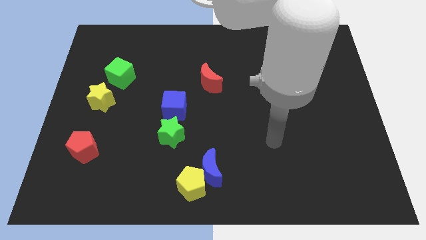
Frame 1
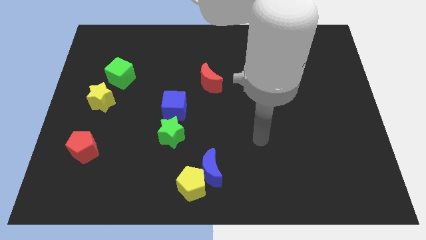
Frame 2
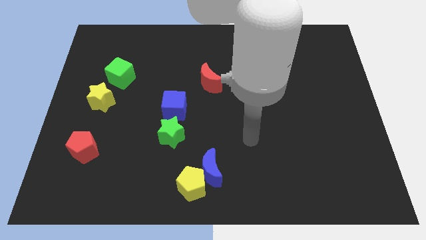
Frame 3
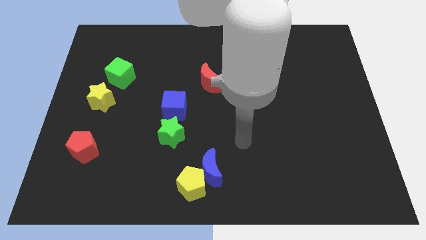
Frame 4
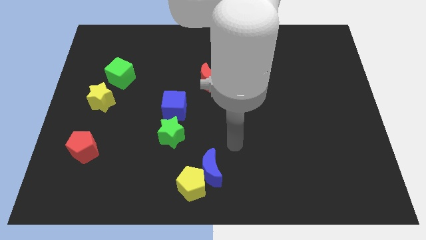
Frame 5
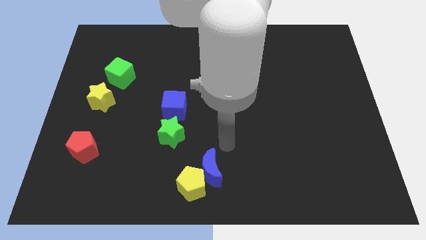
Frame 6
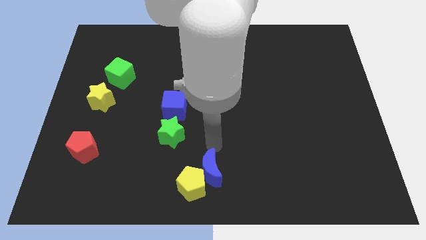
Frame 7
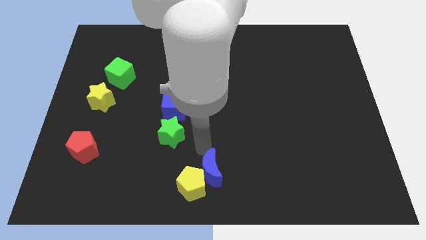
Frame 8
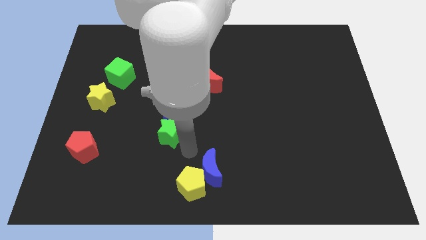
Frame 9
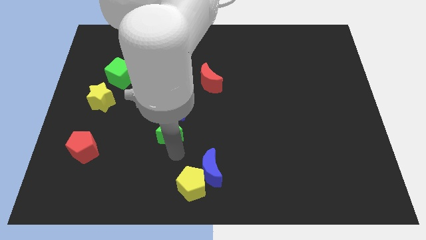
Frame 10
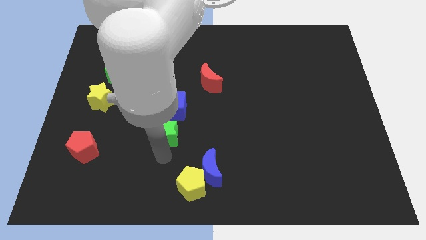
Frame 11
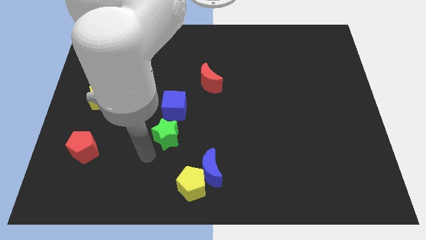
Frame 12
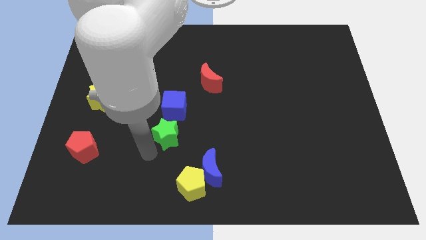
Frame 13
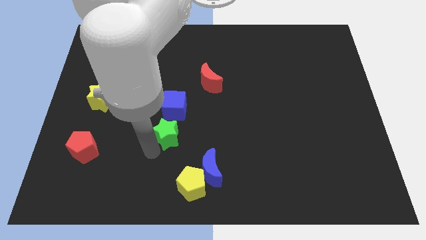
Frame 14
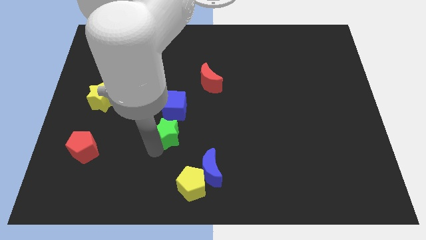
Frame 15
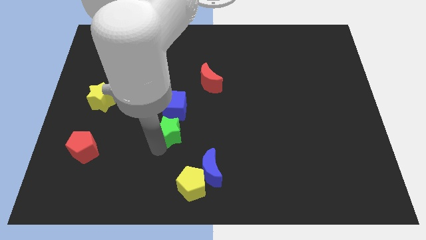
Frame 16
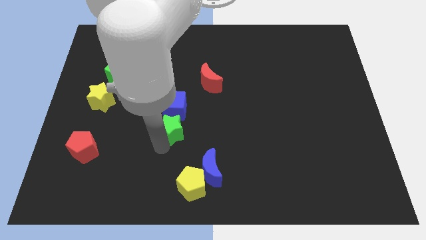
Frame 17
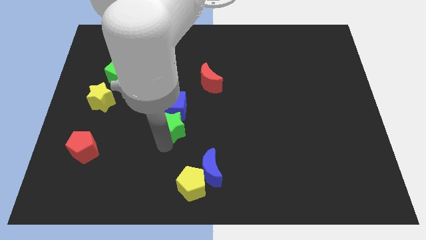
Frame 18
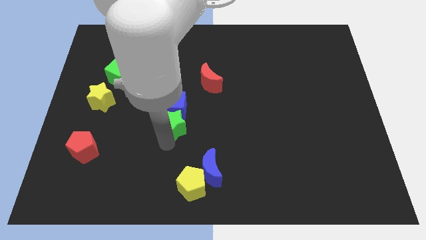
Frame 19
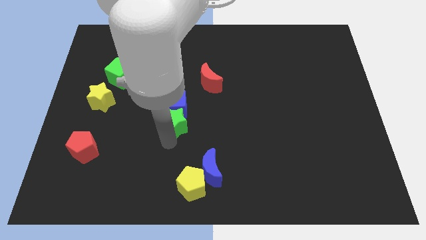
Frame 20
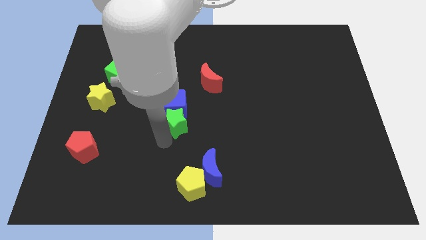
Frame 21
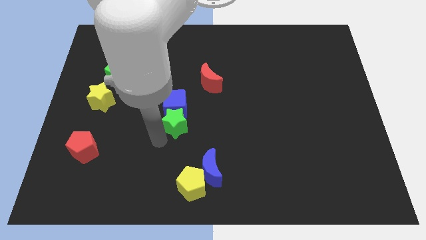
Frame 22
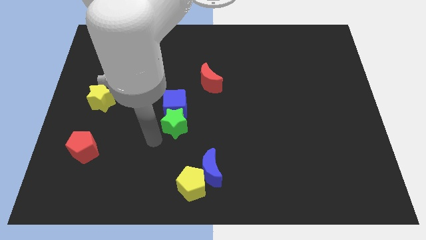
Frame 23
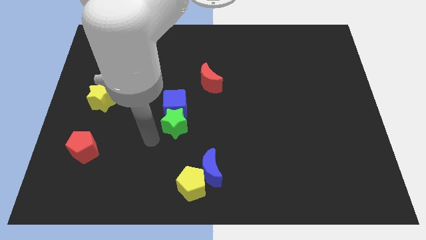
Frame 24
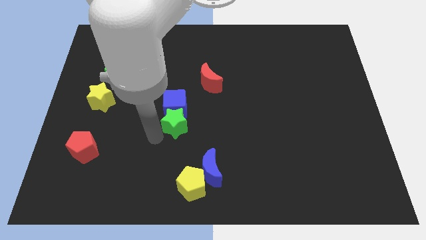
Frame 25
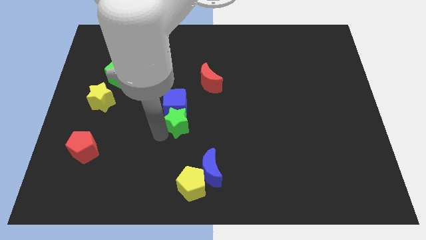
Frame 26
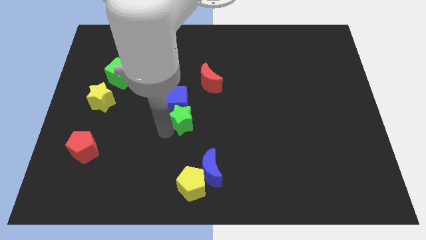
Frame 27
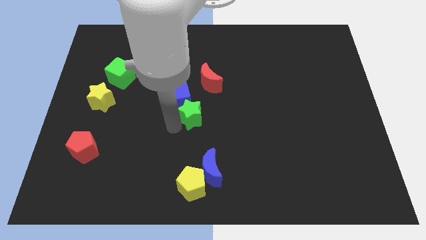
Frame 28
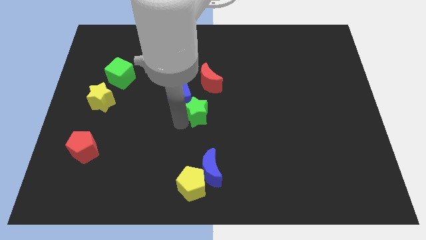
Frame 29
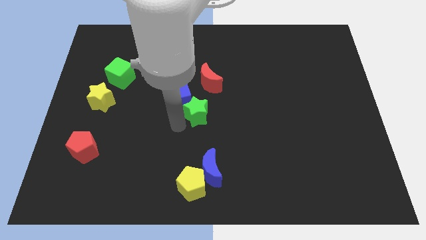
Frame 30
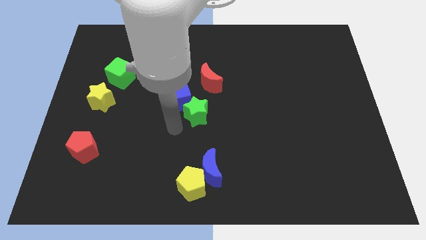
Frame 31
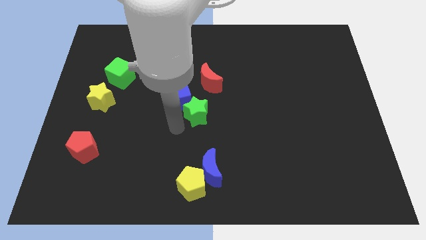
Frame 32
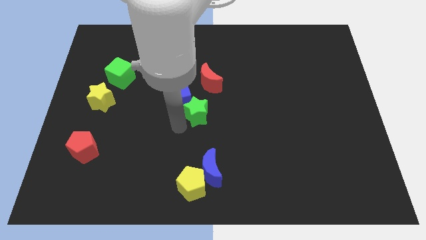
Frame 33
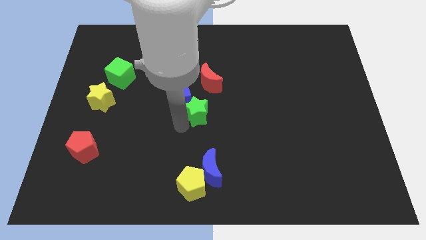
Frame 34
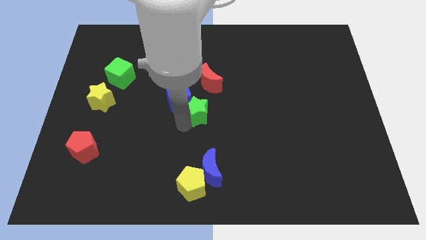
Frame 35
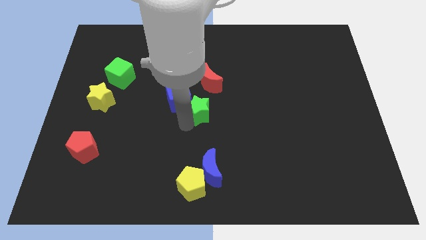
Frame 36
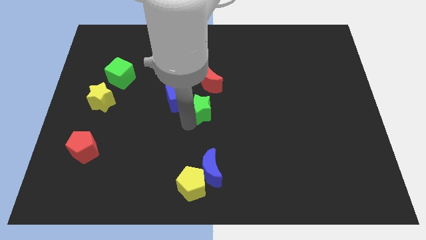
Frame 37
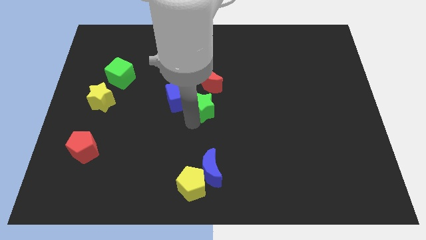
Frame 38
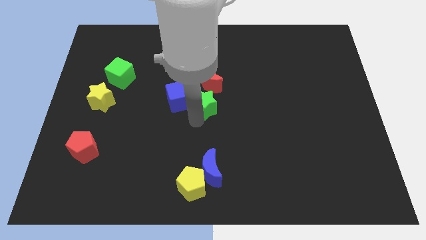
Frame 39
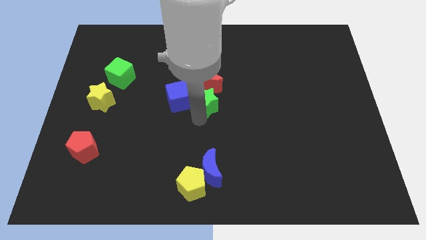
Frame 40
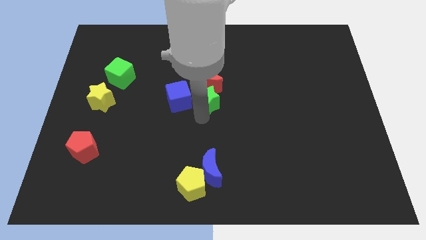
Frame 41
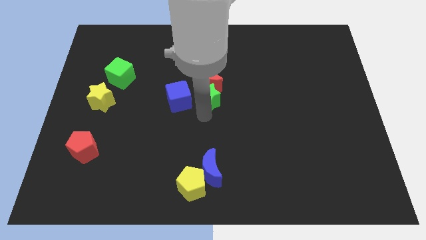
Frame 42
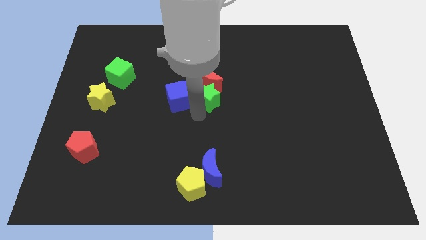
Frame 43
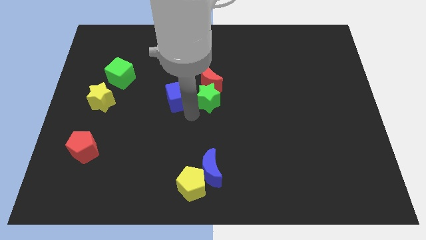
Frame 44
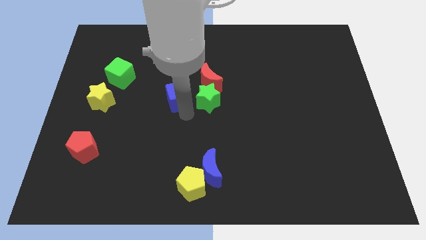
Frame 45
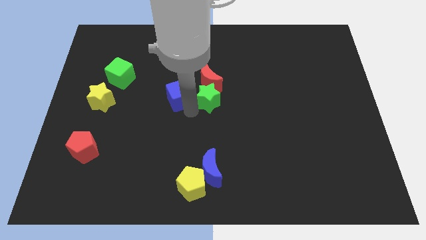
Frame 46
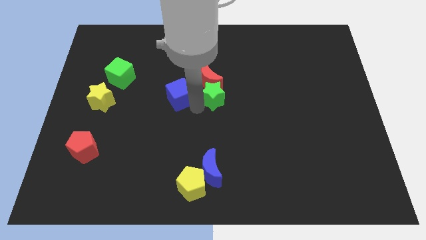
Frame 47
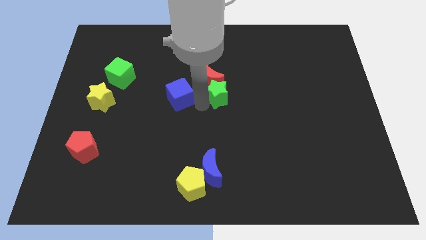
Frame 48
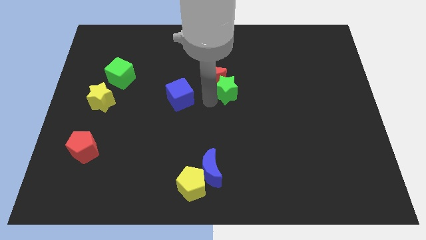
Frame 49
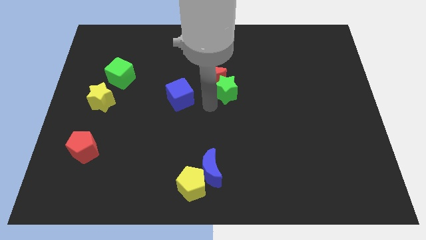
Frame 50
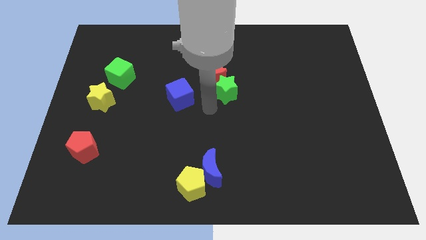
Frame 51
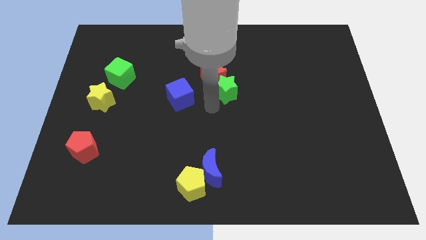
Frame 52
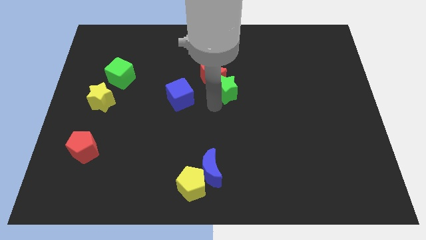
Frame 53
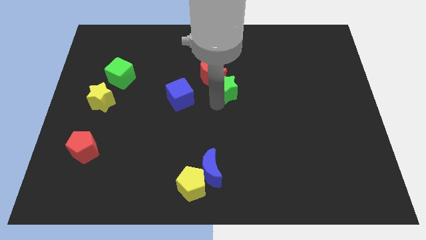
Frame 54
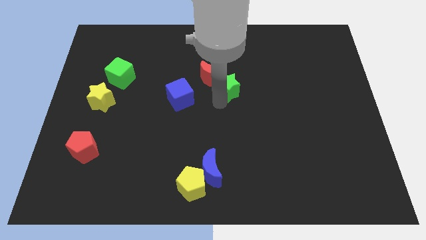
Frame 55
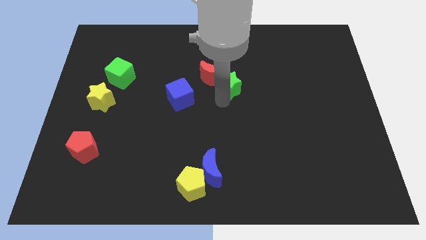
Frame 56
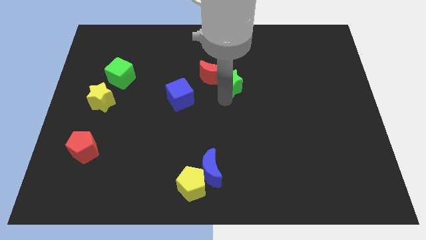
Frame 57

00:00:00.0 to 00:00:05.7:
push the green star upwards and to the right

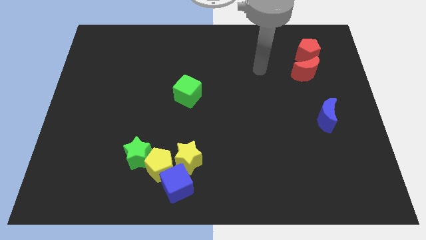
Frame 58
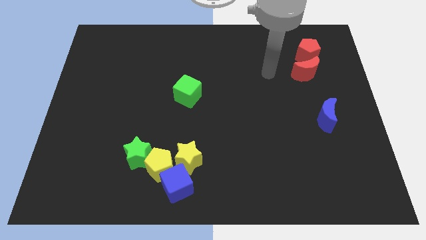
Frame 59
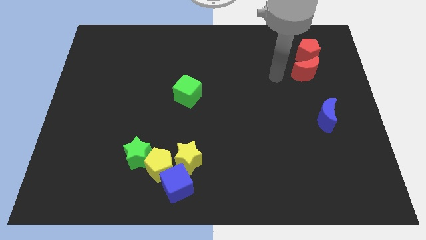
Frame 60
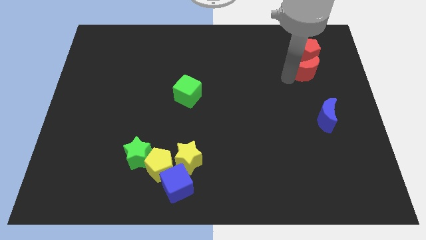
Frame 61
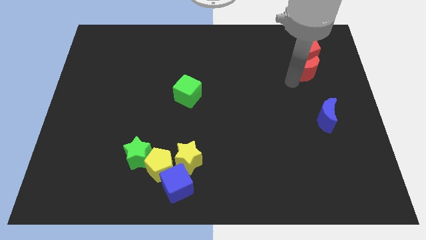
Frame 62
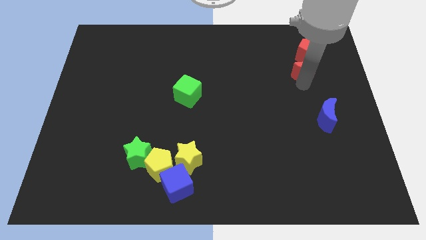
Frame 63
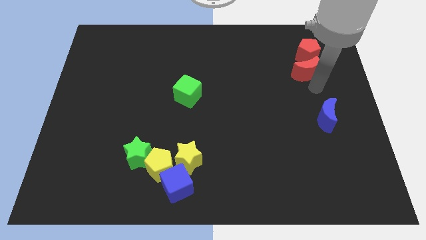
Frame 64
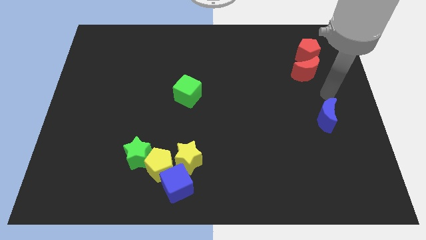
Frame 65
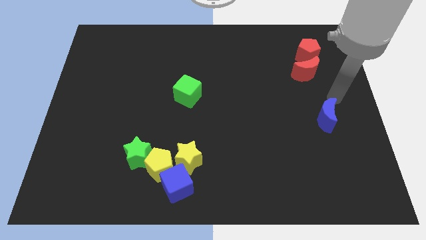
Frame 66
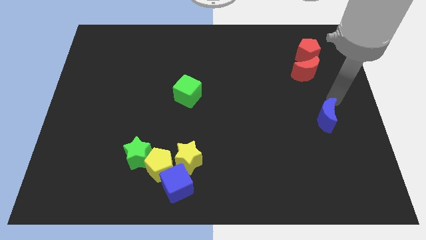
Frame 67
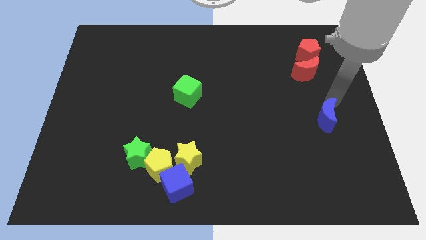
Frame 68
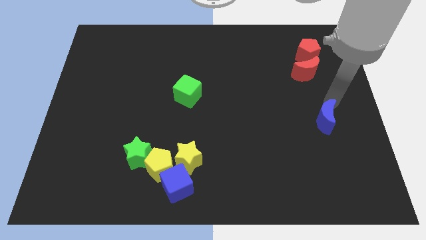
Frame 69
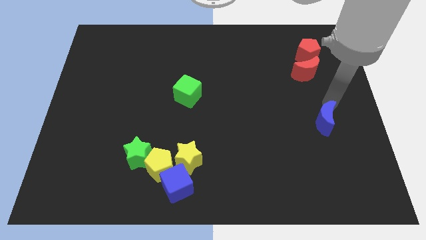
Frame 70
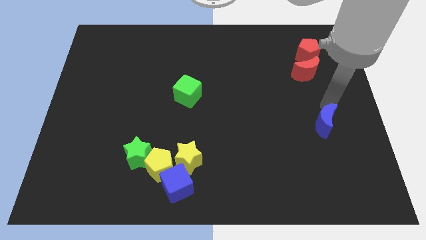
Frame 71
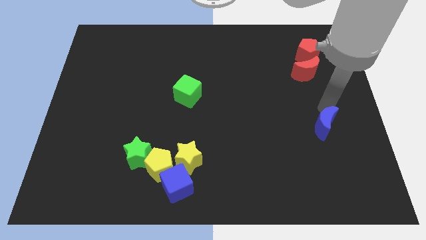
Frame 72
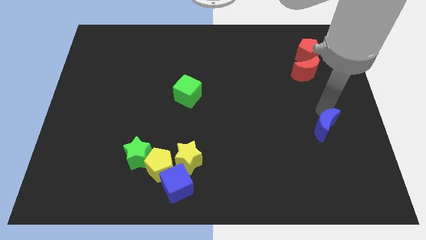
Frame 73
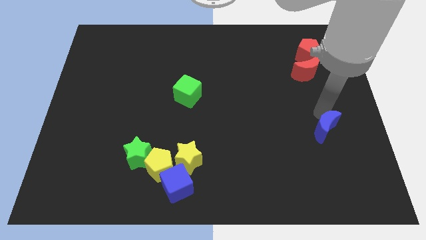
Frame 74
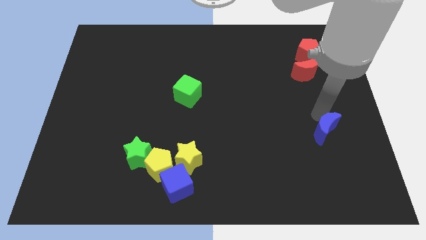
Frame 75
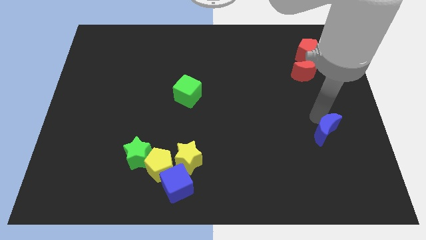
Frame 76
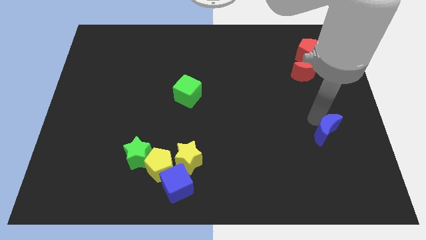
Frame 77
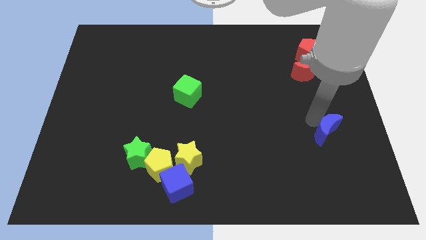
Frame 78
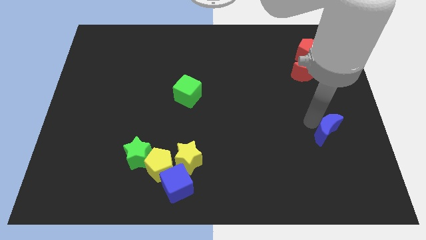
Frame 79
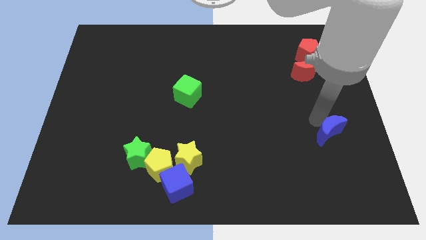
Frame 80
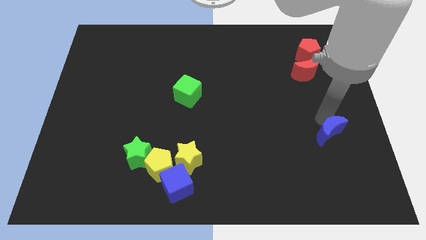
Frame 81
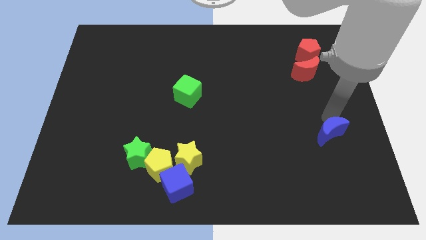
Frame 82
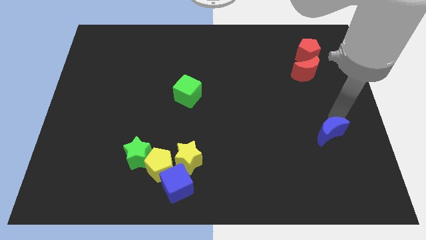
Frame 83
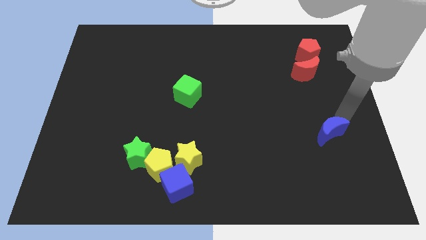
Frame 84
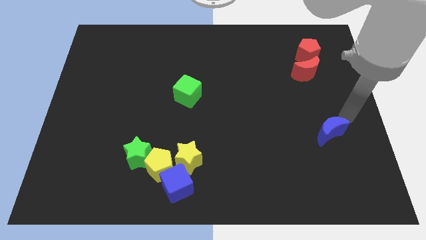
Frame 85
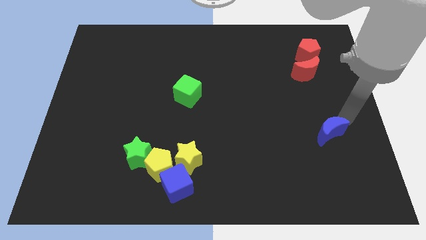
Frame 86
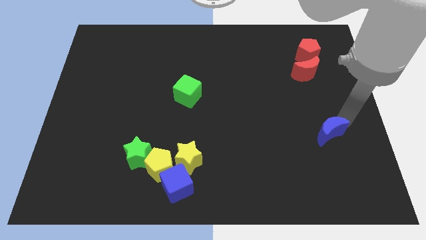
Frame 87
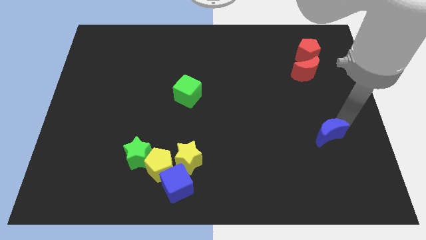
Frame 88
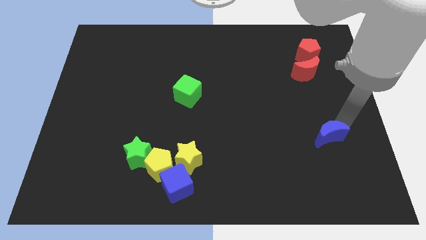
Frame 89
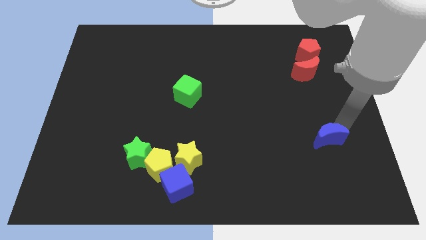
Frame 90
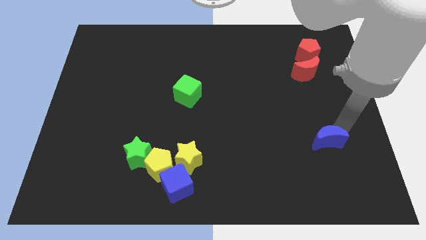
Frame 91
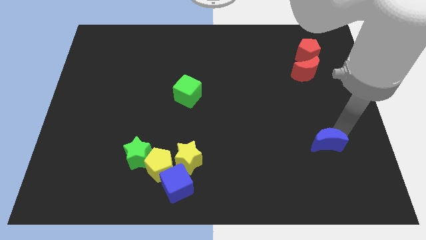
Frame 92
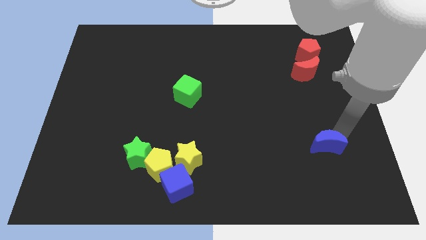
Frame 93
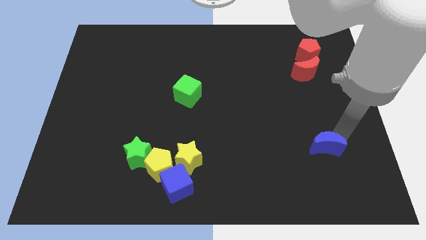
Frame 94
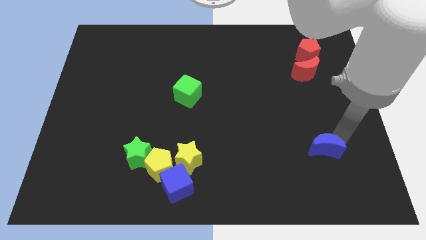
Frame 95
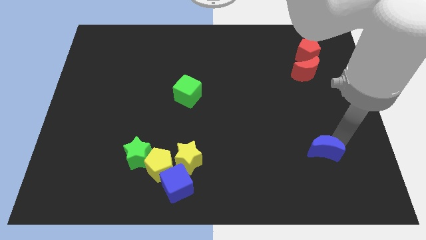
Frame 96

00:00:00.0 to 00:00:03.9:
slide the blue moon down and then to the left a little
